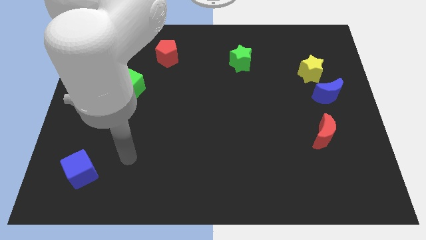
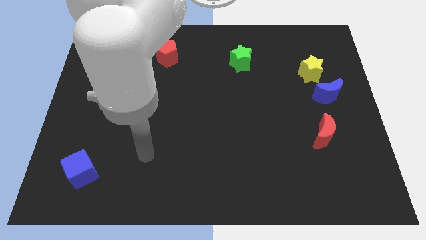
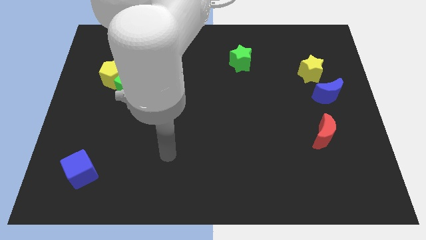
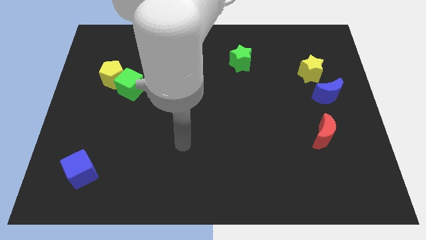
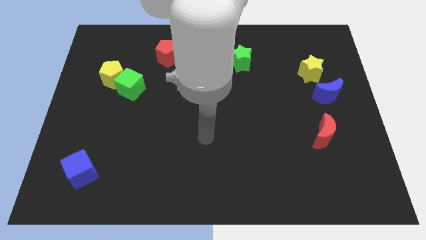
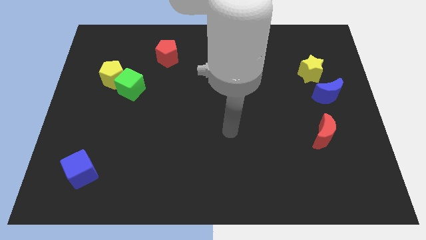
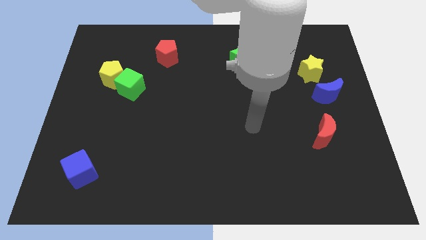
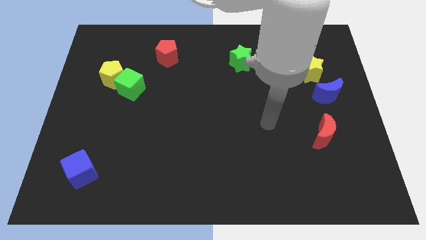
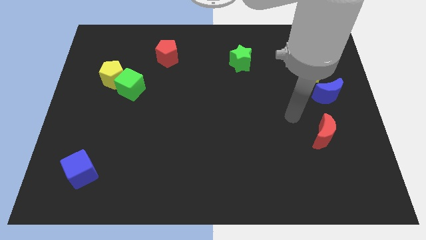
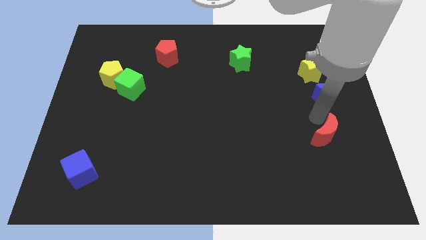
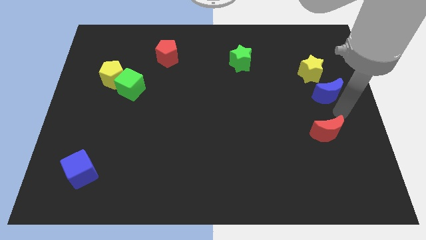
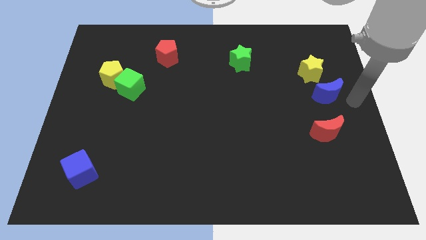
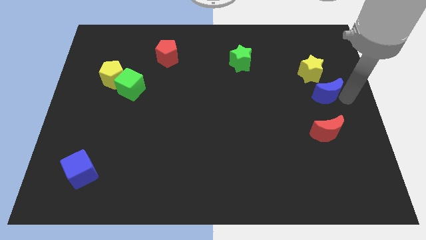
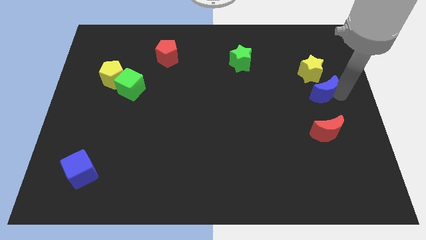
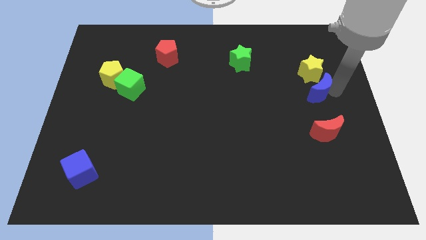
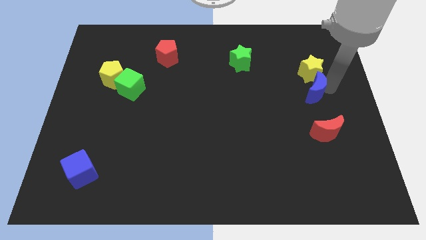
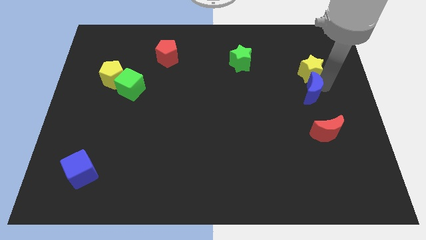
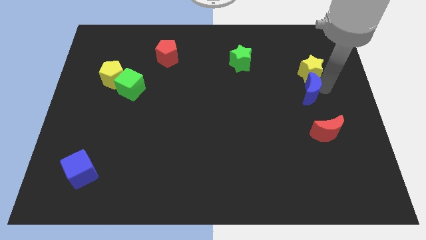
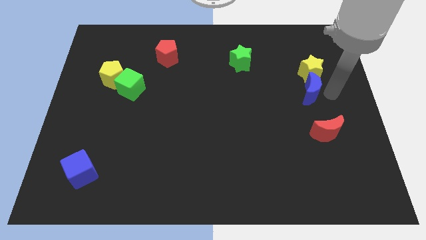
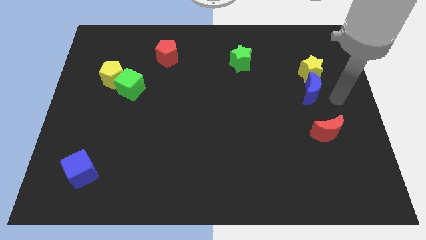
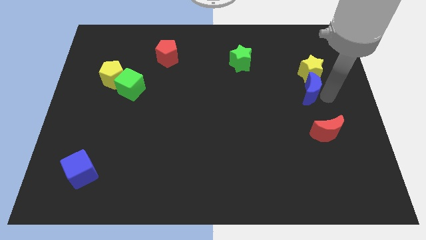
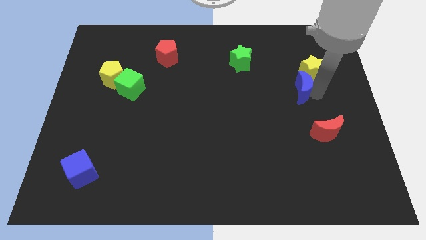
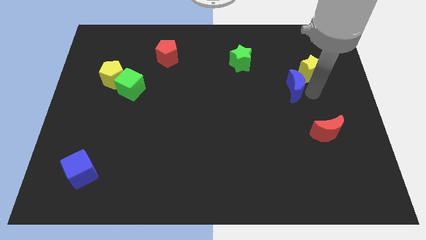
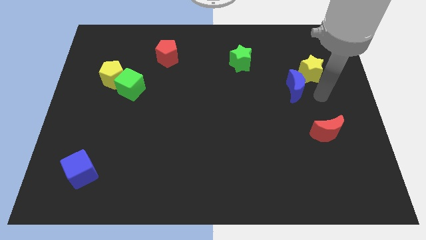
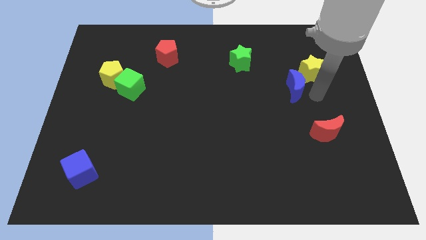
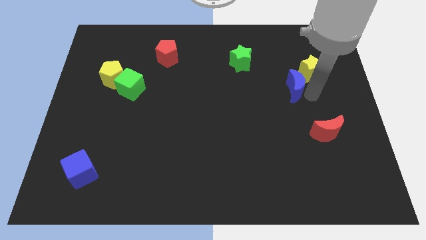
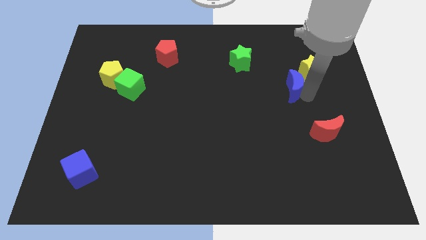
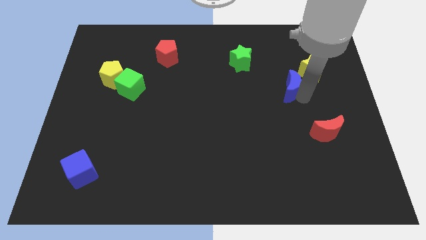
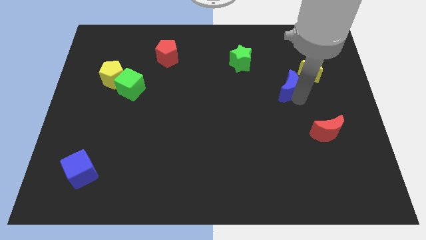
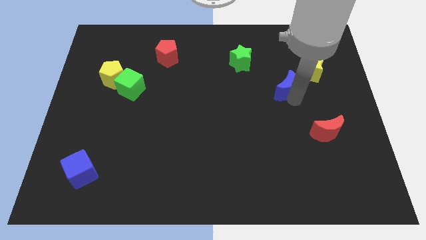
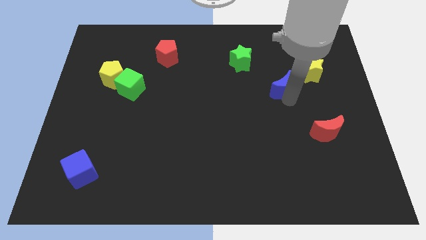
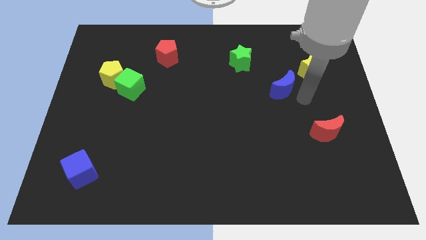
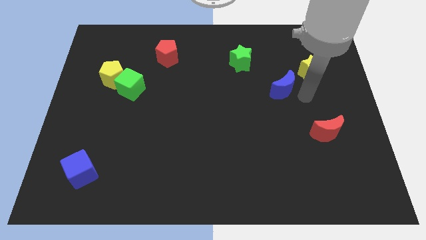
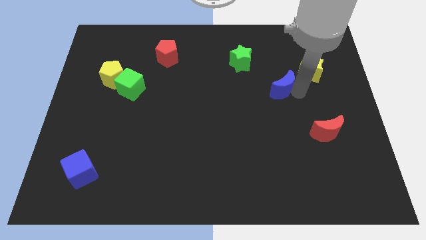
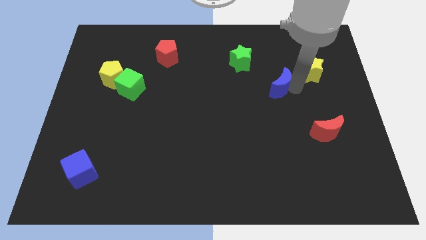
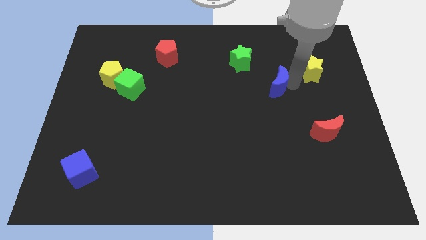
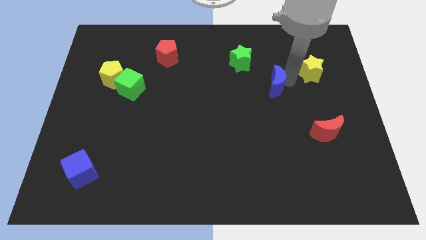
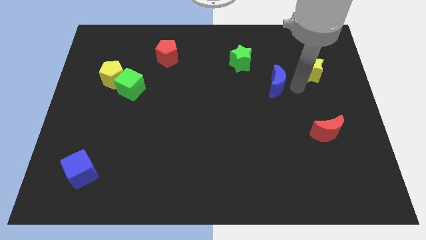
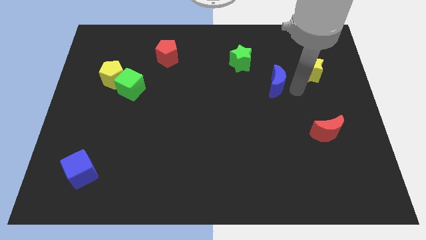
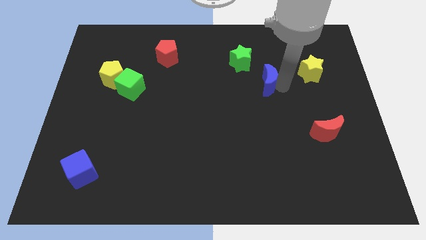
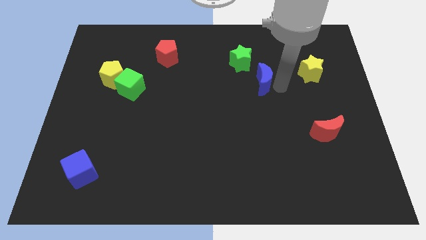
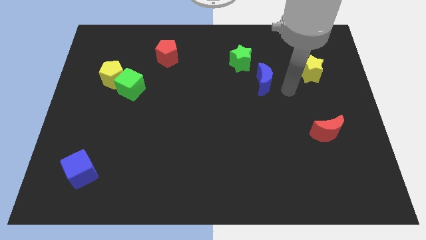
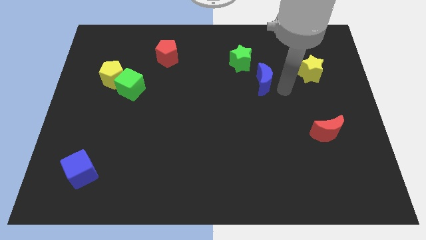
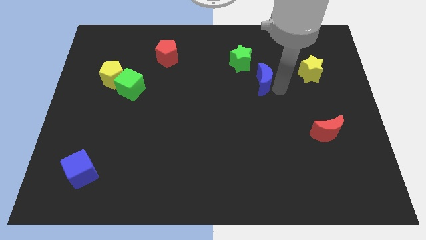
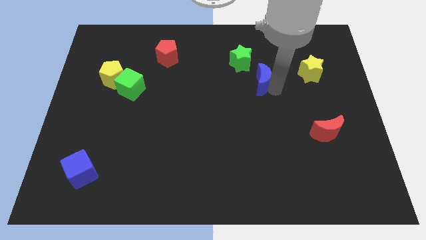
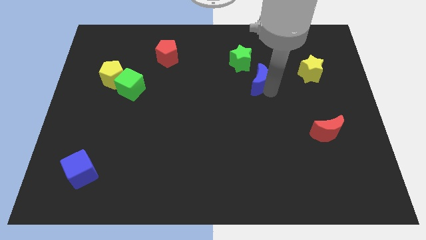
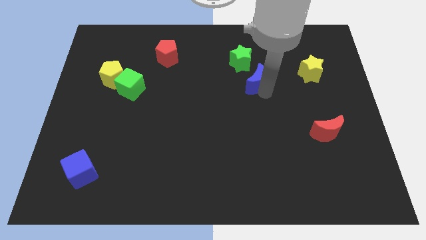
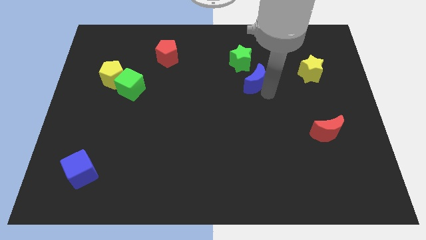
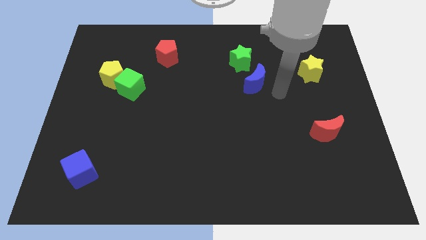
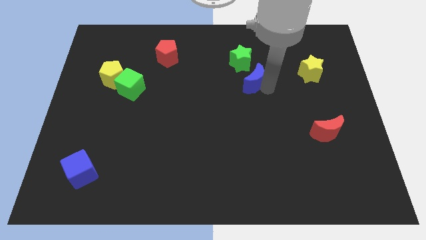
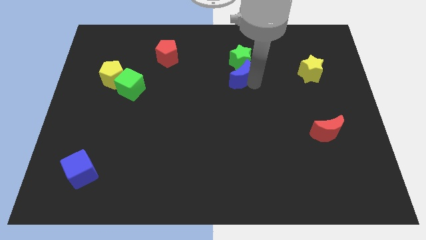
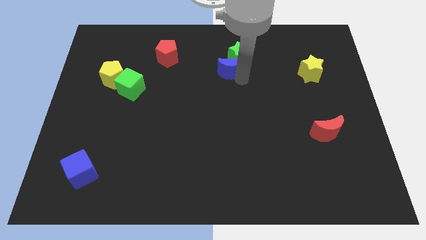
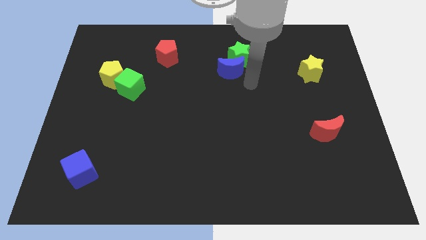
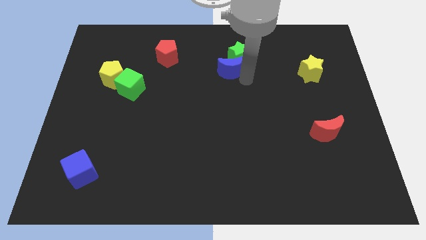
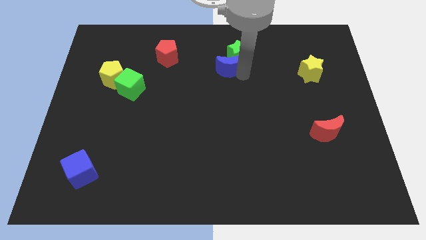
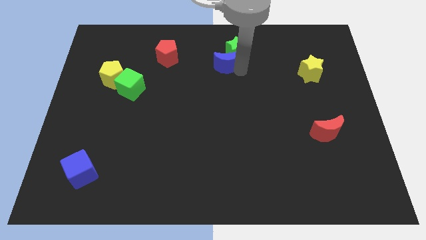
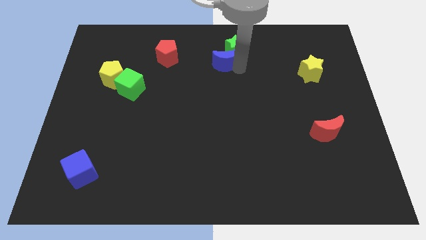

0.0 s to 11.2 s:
put the blue moon just right of the red pentagon
